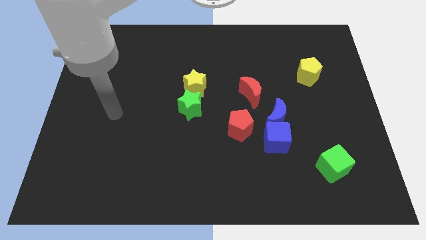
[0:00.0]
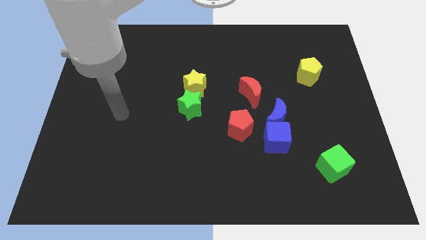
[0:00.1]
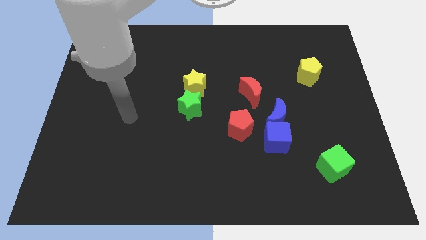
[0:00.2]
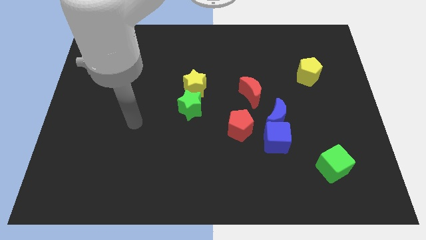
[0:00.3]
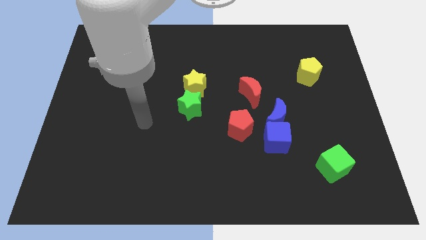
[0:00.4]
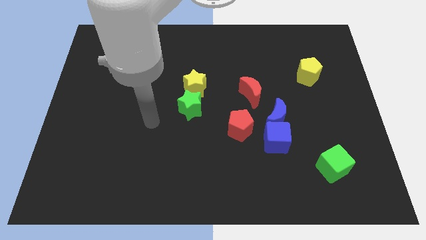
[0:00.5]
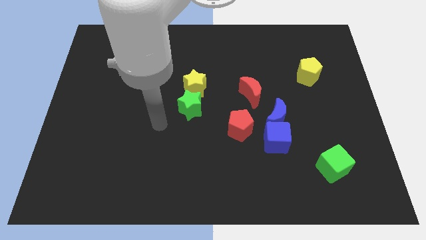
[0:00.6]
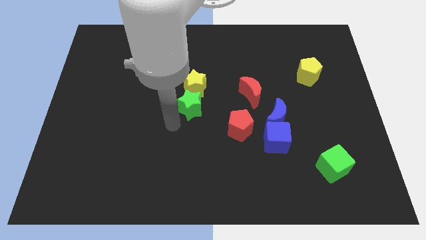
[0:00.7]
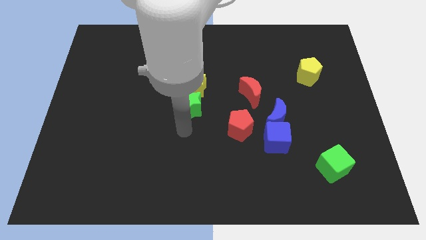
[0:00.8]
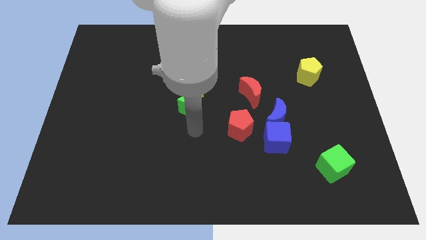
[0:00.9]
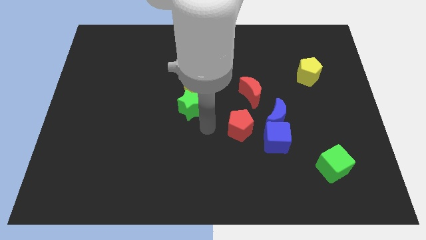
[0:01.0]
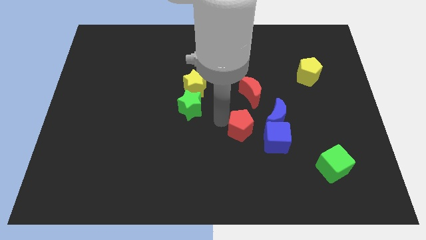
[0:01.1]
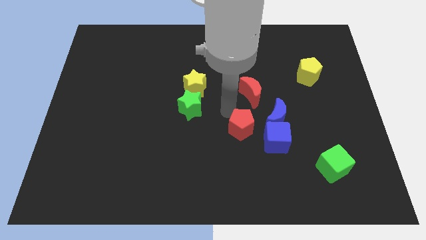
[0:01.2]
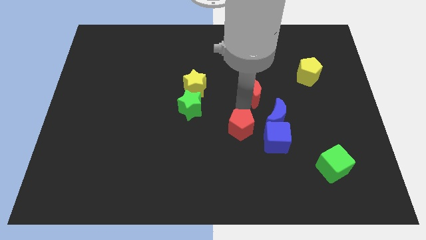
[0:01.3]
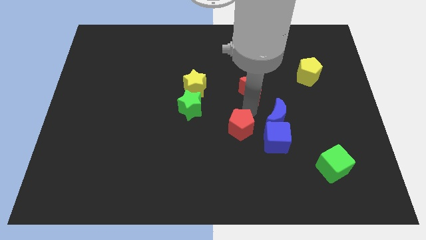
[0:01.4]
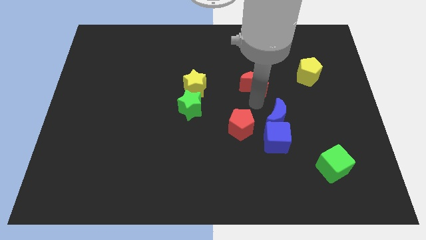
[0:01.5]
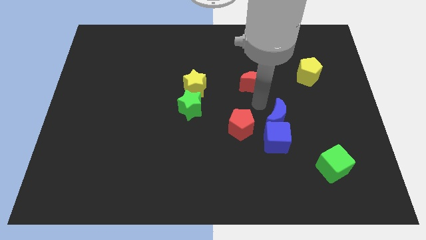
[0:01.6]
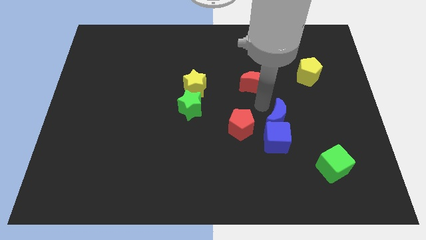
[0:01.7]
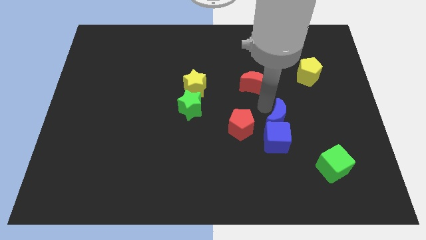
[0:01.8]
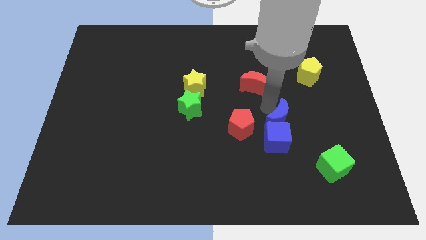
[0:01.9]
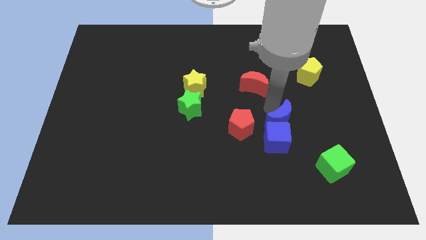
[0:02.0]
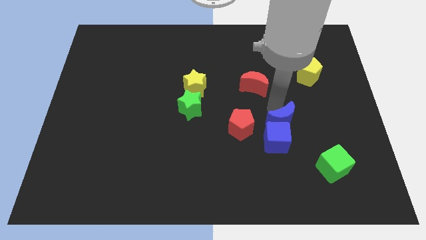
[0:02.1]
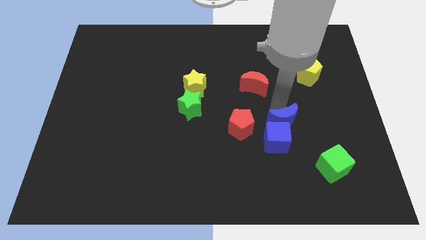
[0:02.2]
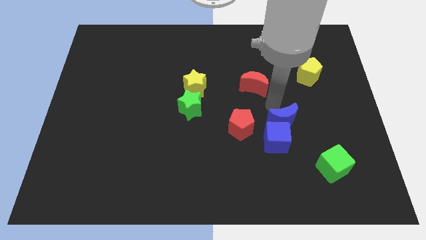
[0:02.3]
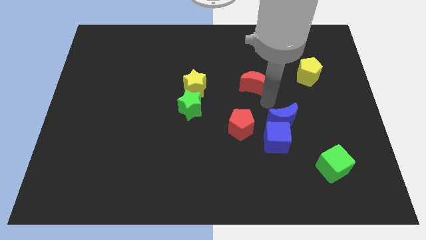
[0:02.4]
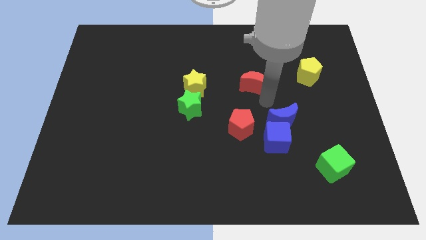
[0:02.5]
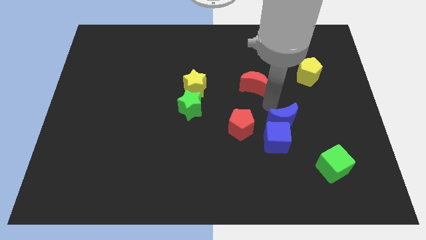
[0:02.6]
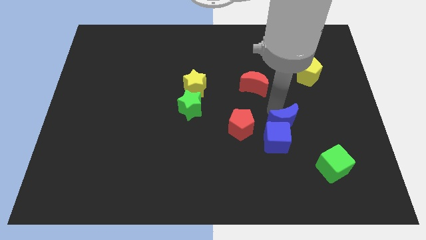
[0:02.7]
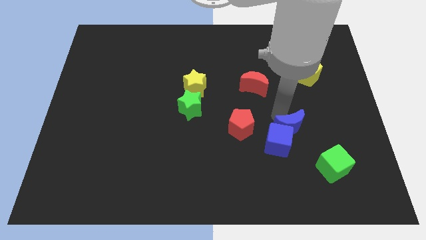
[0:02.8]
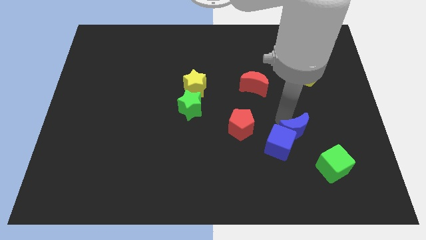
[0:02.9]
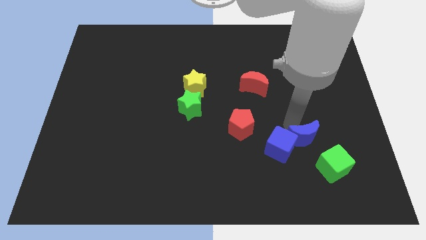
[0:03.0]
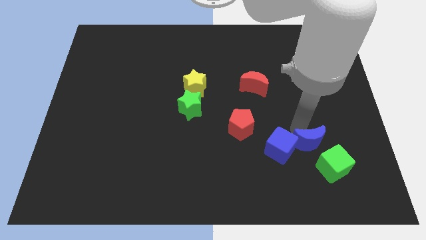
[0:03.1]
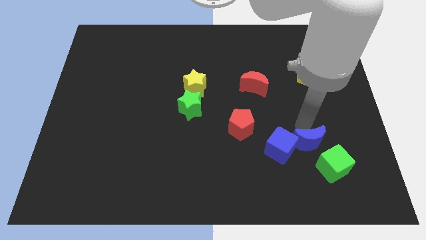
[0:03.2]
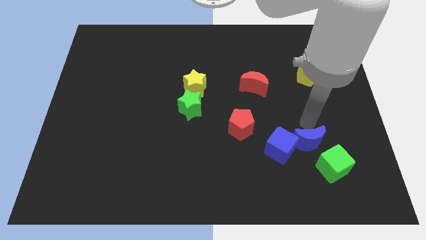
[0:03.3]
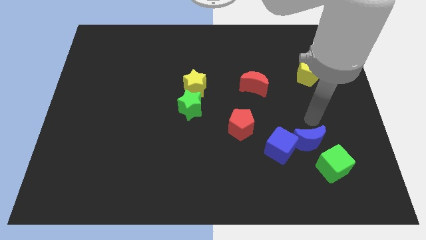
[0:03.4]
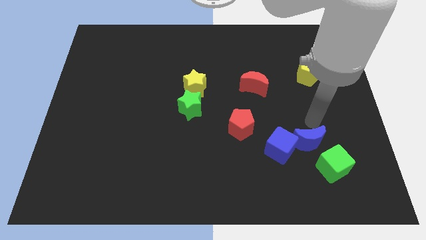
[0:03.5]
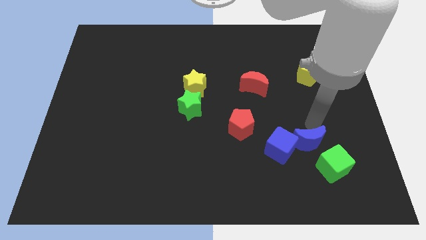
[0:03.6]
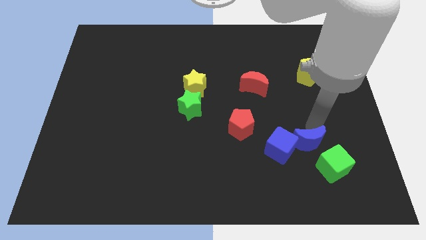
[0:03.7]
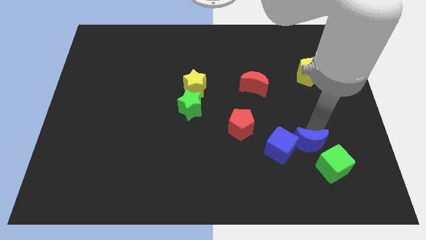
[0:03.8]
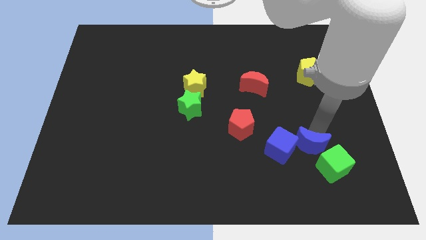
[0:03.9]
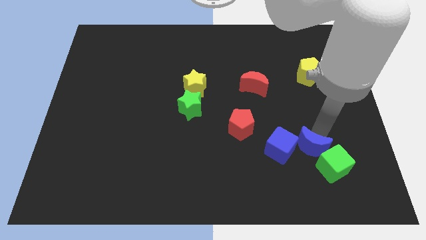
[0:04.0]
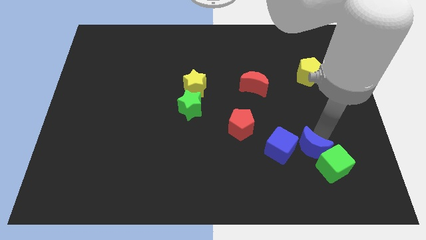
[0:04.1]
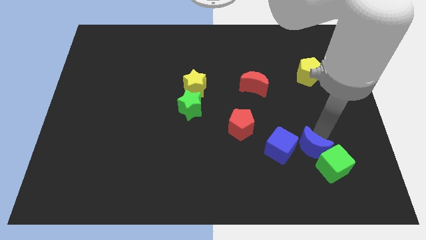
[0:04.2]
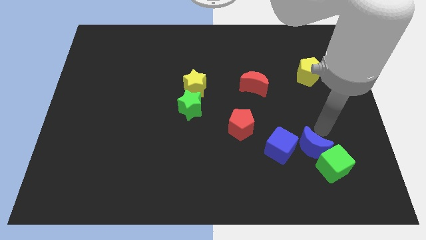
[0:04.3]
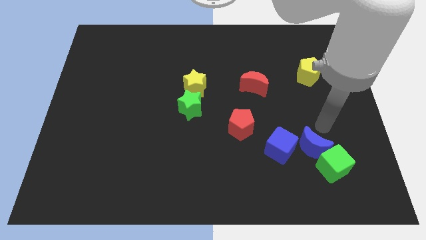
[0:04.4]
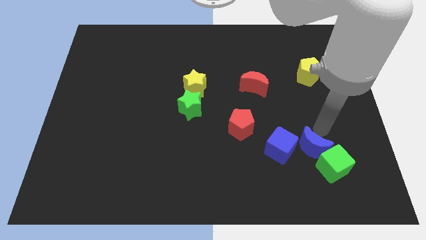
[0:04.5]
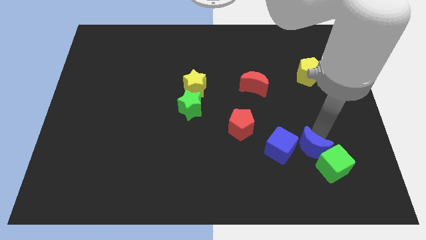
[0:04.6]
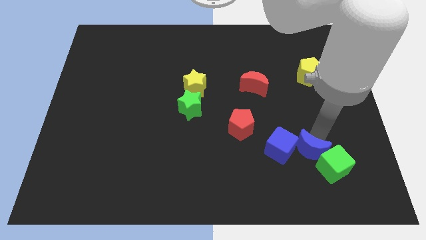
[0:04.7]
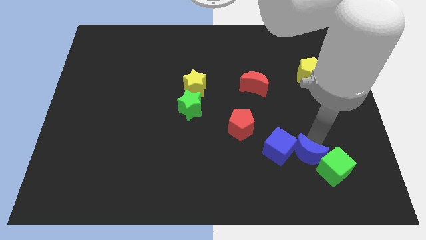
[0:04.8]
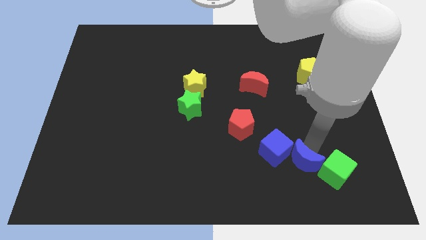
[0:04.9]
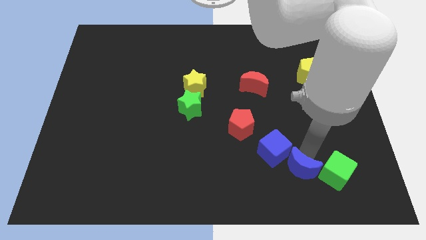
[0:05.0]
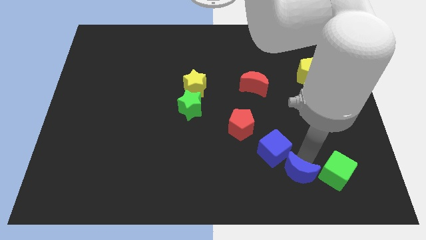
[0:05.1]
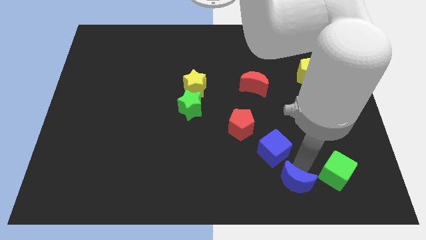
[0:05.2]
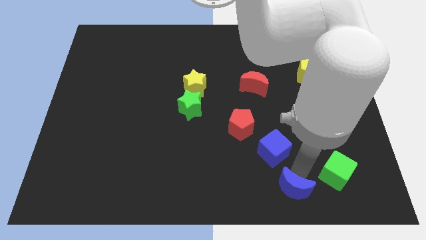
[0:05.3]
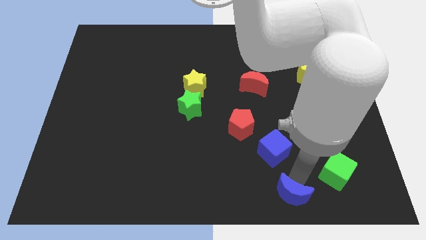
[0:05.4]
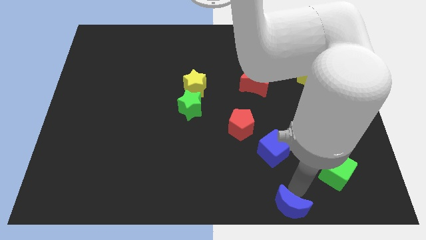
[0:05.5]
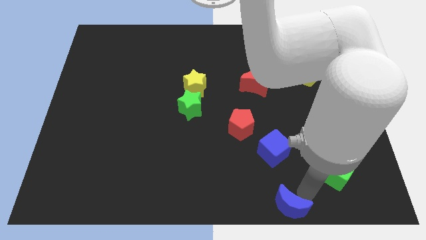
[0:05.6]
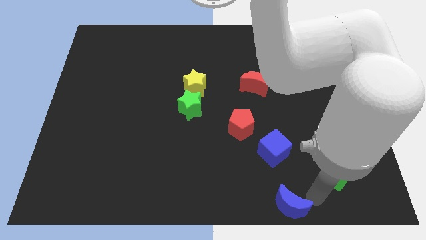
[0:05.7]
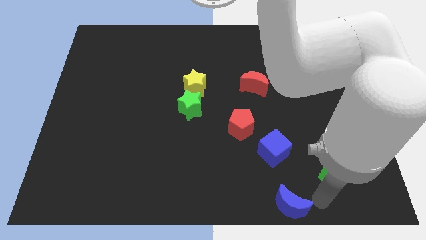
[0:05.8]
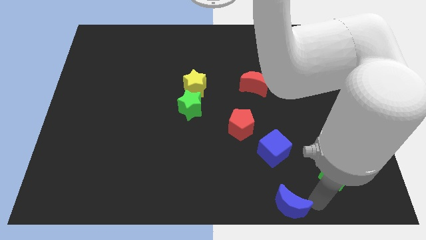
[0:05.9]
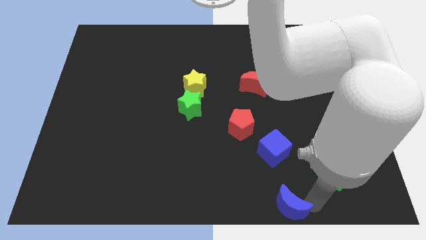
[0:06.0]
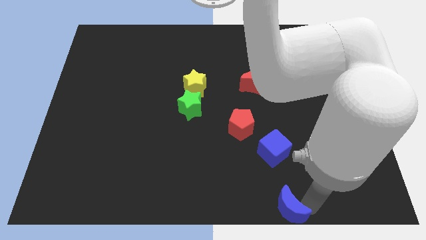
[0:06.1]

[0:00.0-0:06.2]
put the blue moon to the bottom
